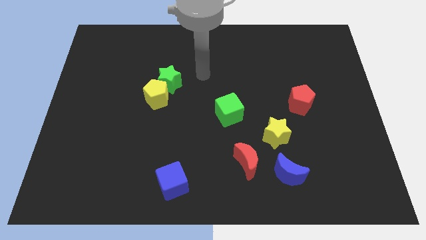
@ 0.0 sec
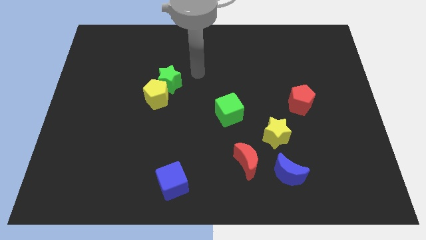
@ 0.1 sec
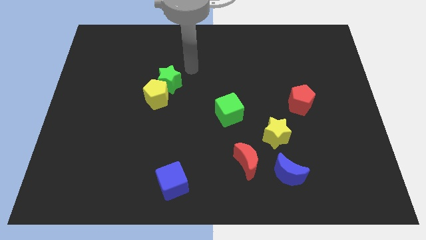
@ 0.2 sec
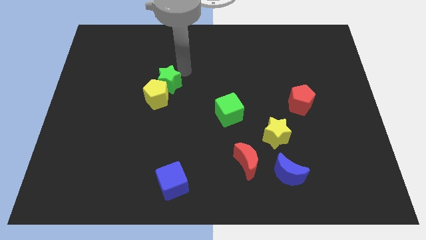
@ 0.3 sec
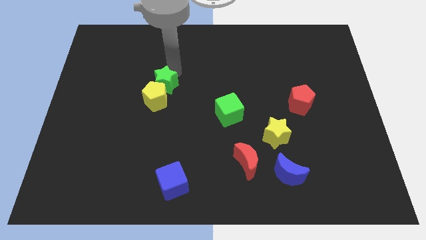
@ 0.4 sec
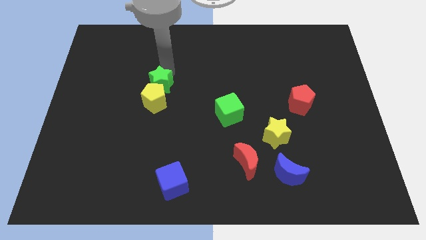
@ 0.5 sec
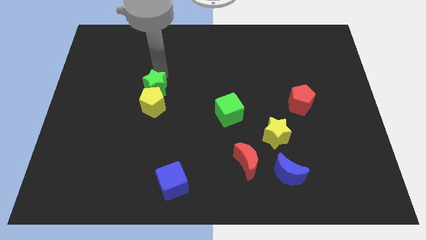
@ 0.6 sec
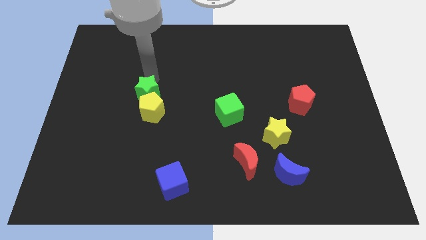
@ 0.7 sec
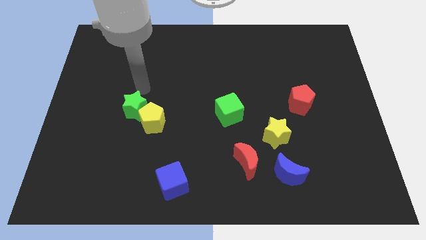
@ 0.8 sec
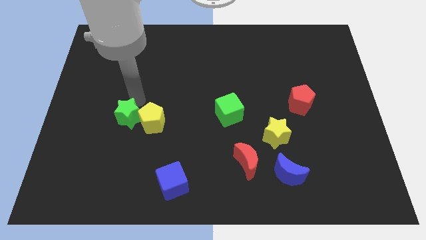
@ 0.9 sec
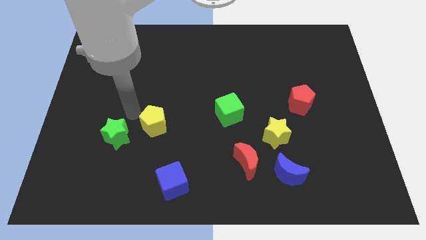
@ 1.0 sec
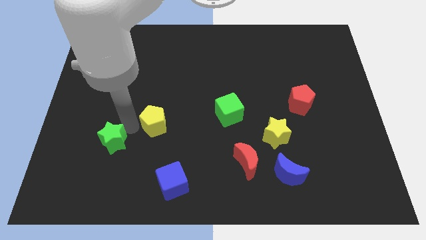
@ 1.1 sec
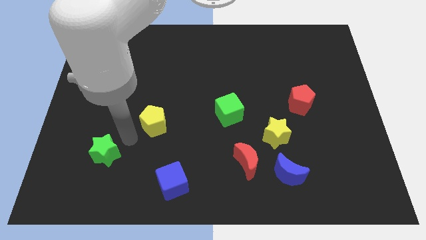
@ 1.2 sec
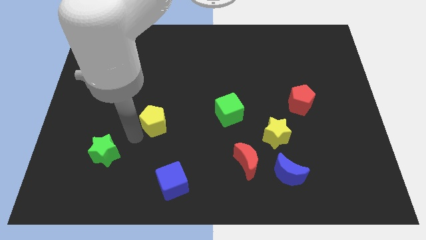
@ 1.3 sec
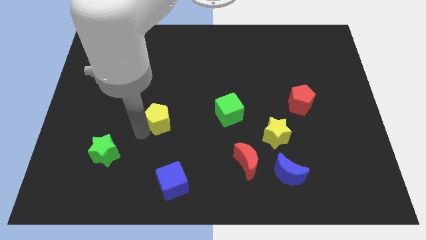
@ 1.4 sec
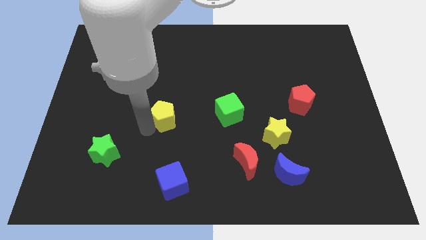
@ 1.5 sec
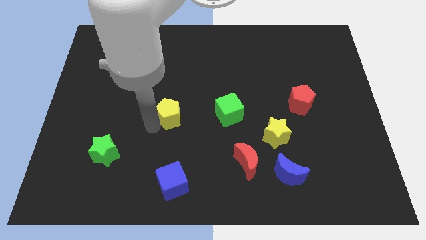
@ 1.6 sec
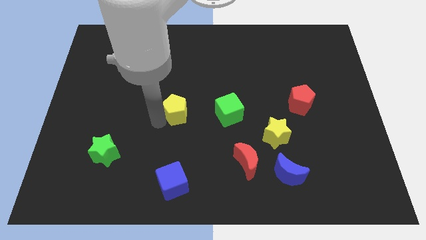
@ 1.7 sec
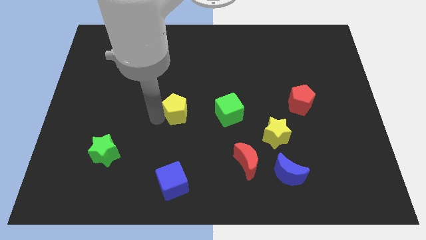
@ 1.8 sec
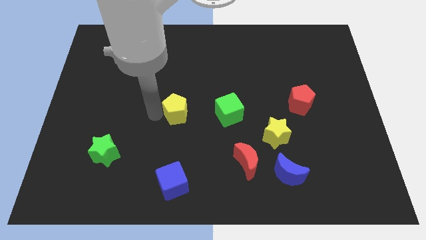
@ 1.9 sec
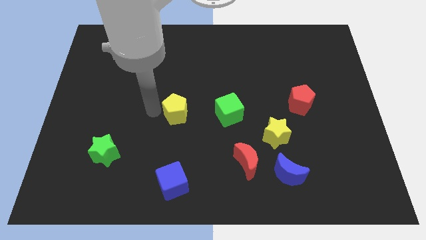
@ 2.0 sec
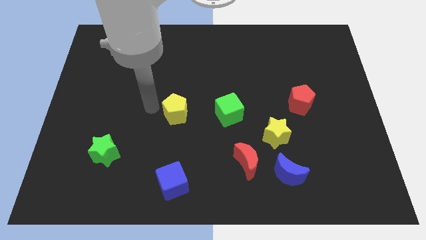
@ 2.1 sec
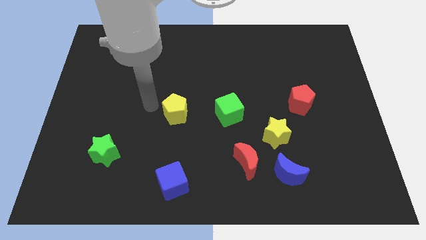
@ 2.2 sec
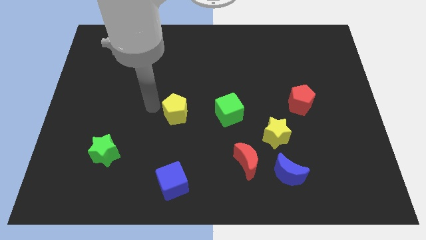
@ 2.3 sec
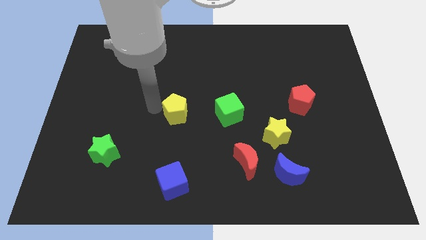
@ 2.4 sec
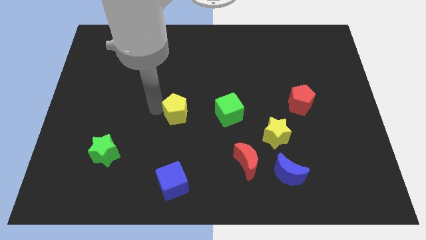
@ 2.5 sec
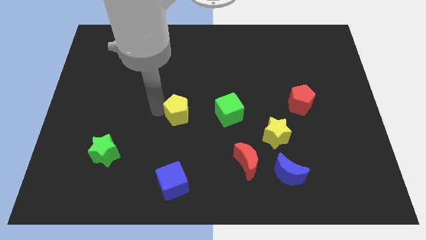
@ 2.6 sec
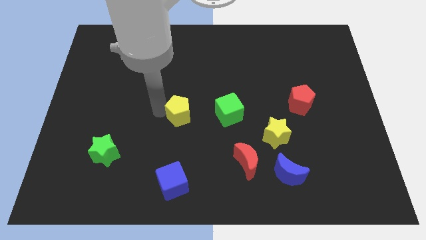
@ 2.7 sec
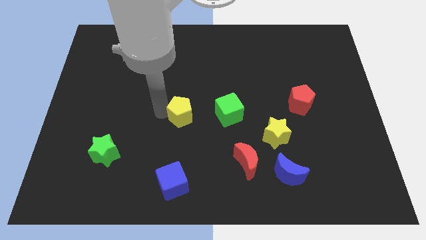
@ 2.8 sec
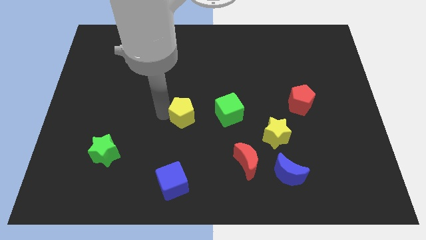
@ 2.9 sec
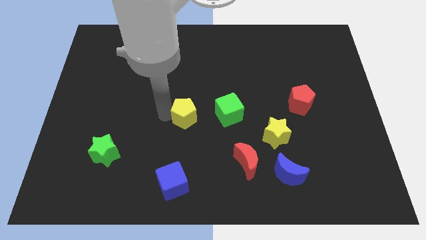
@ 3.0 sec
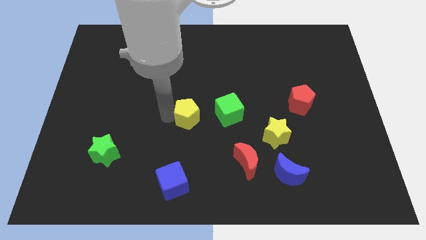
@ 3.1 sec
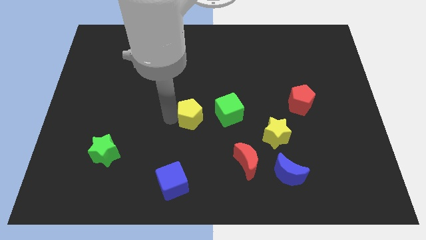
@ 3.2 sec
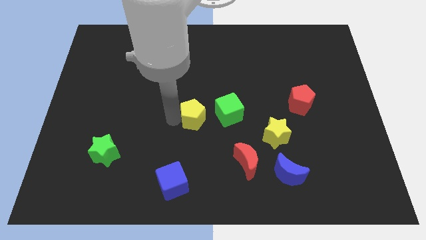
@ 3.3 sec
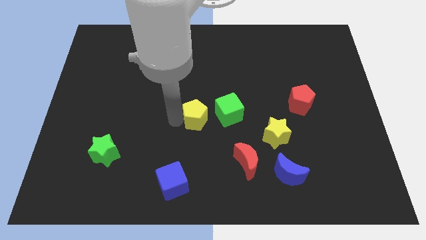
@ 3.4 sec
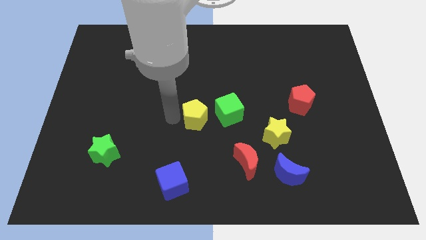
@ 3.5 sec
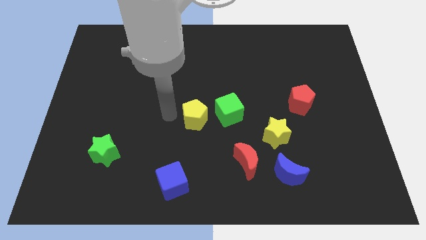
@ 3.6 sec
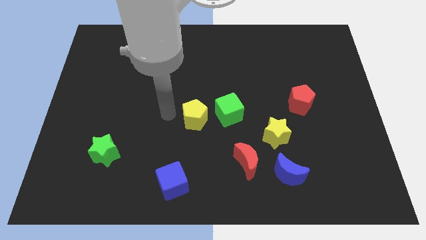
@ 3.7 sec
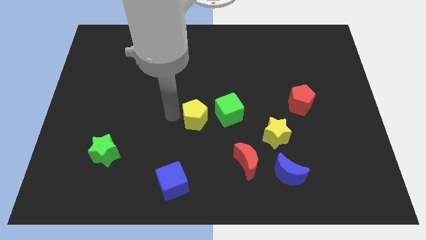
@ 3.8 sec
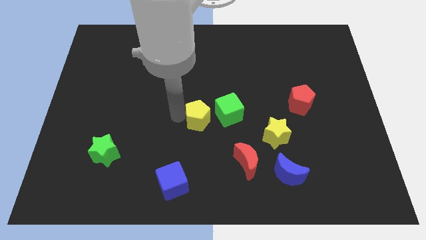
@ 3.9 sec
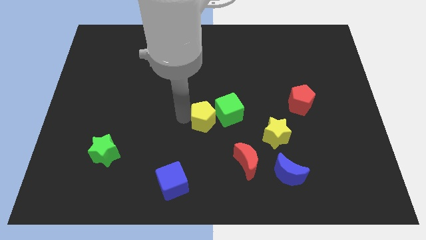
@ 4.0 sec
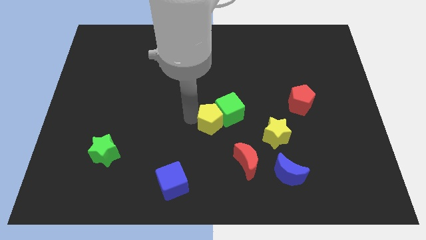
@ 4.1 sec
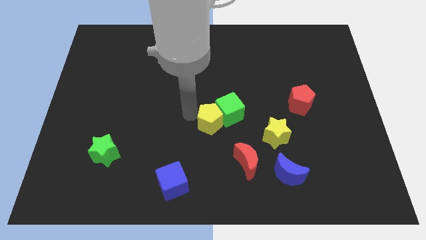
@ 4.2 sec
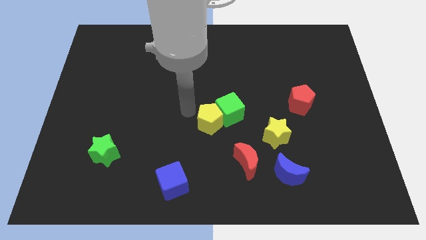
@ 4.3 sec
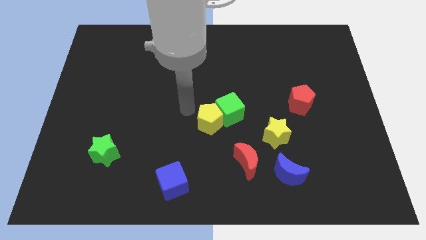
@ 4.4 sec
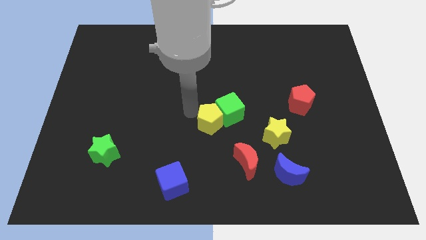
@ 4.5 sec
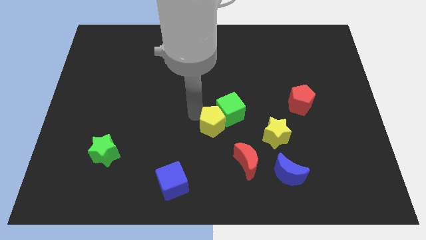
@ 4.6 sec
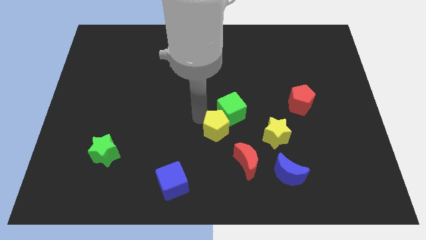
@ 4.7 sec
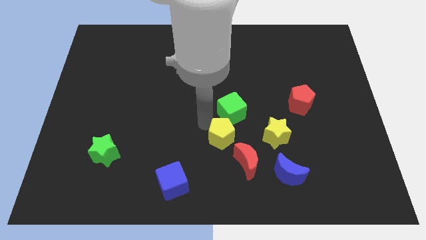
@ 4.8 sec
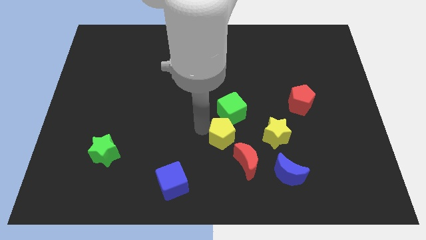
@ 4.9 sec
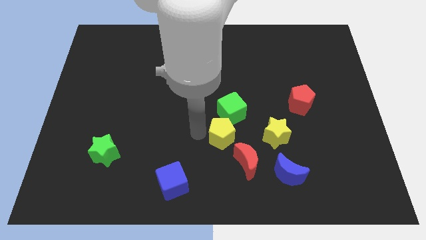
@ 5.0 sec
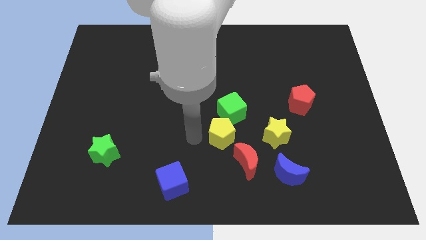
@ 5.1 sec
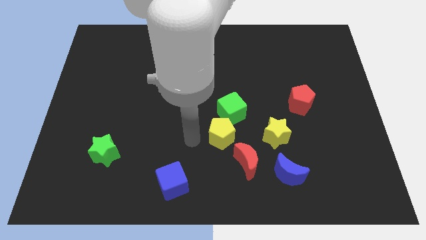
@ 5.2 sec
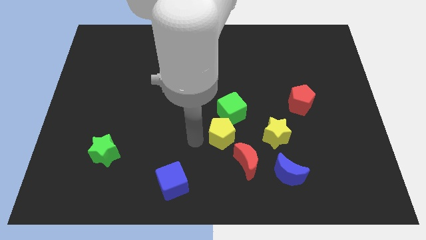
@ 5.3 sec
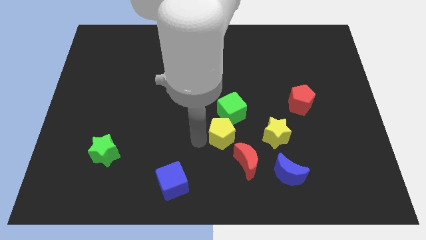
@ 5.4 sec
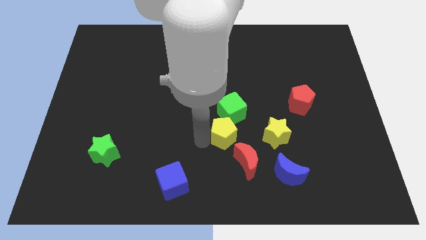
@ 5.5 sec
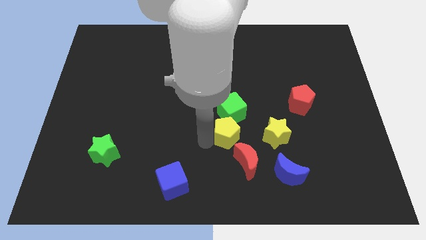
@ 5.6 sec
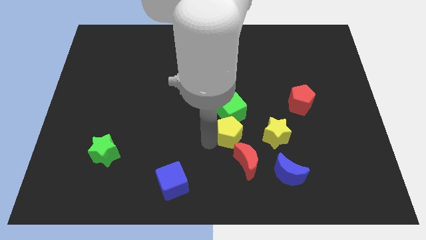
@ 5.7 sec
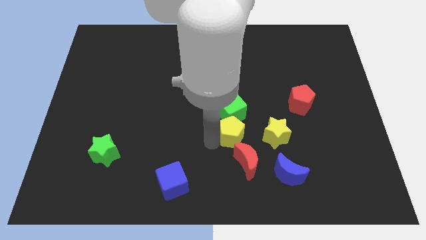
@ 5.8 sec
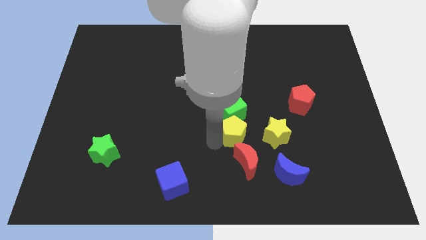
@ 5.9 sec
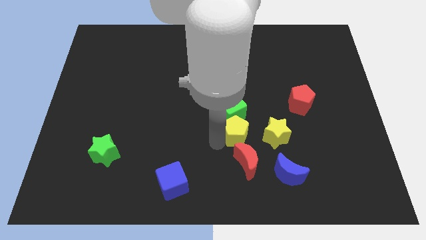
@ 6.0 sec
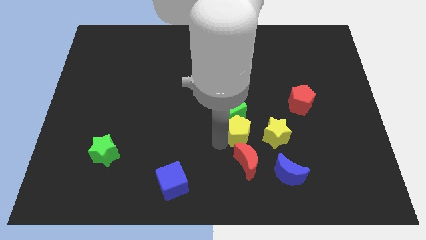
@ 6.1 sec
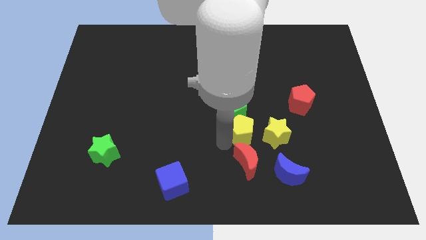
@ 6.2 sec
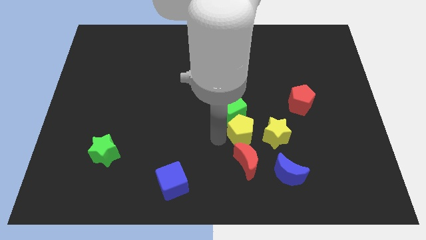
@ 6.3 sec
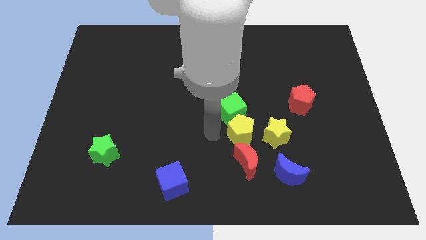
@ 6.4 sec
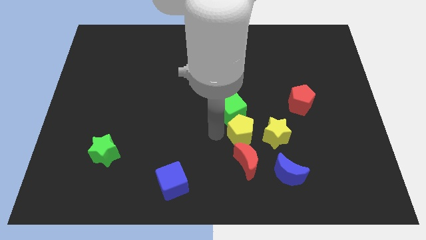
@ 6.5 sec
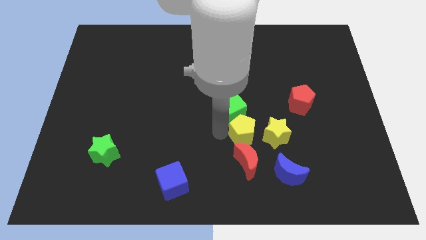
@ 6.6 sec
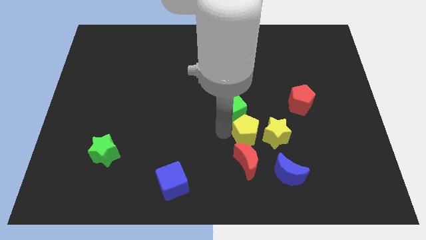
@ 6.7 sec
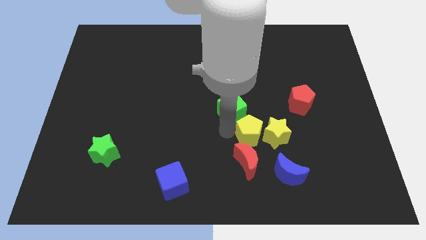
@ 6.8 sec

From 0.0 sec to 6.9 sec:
slide the yellow pentagon close to the yellow star

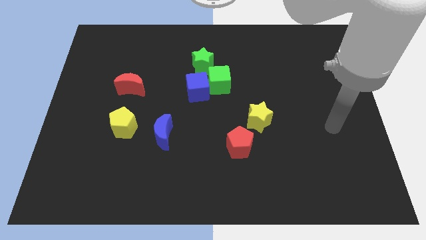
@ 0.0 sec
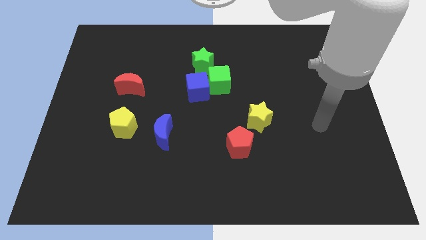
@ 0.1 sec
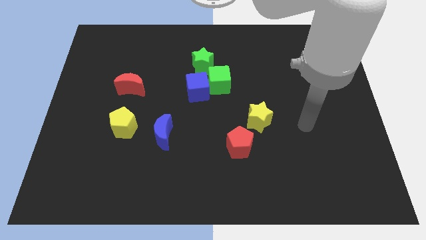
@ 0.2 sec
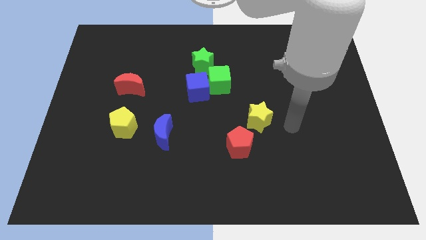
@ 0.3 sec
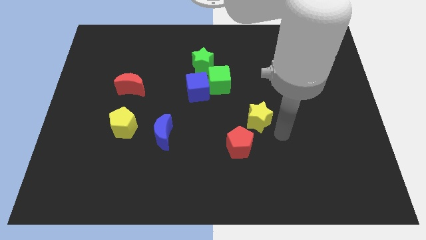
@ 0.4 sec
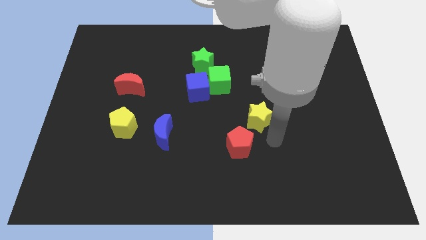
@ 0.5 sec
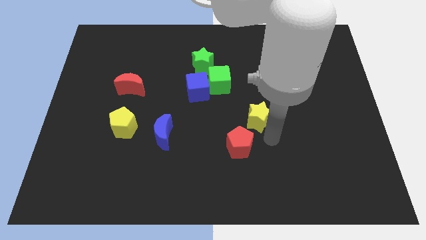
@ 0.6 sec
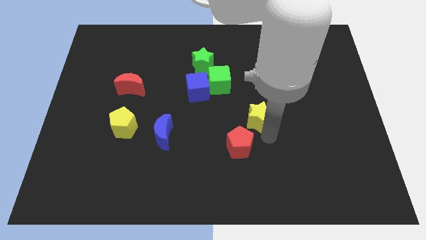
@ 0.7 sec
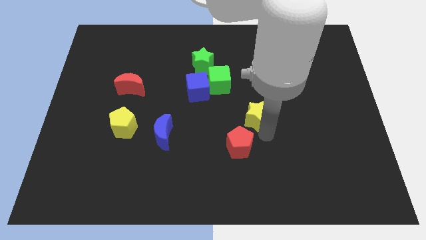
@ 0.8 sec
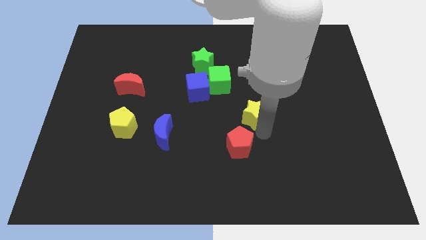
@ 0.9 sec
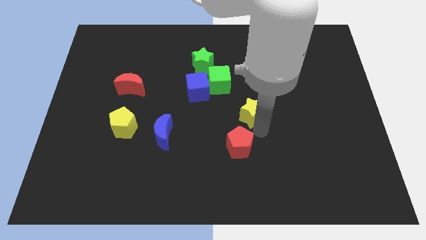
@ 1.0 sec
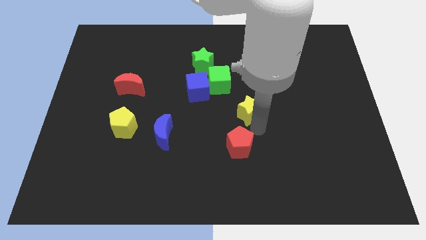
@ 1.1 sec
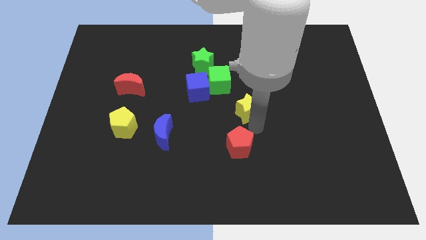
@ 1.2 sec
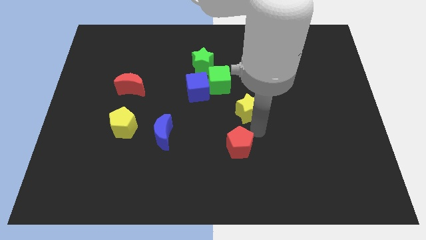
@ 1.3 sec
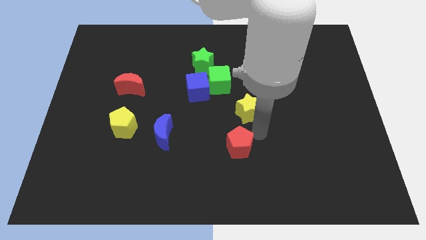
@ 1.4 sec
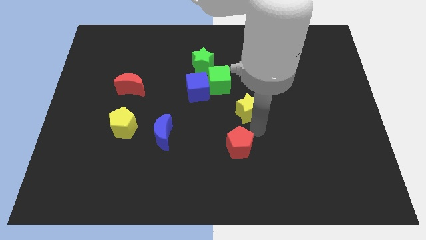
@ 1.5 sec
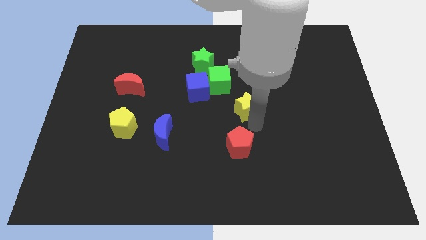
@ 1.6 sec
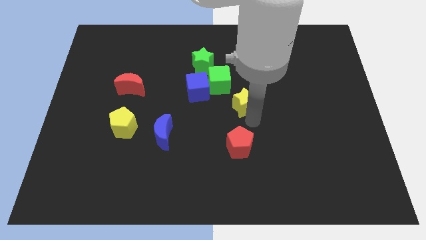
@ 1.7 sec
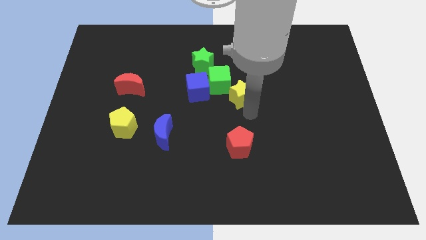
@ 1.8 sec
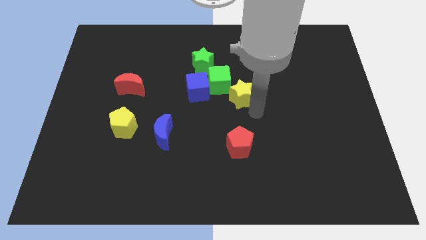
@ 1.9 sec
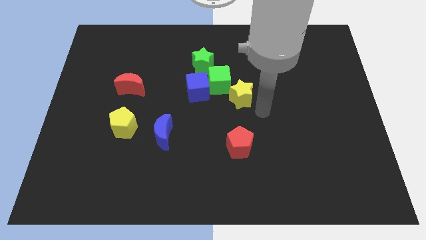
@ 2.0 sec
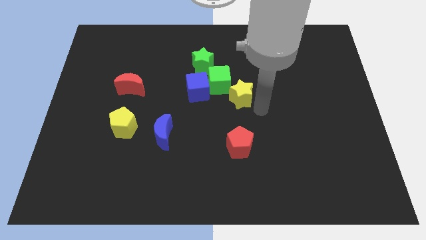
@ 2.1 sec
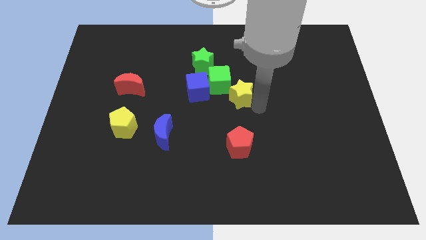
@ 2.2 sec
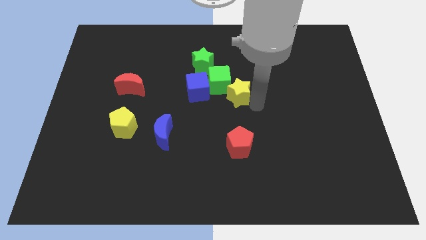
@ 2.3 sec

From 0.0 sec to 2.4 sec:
push the yellow star next to the green cube
